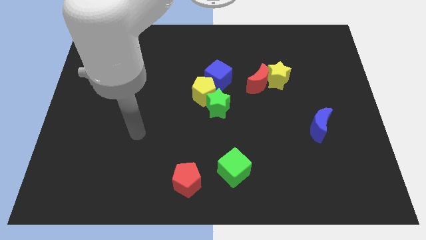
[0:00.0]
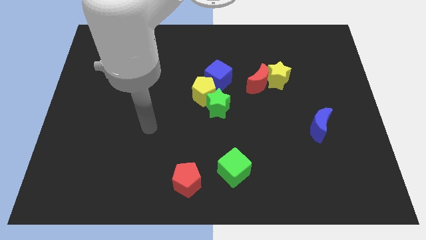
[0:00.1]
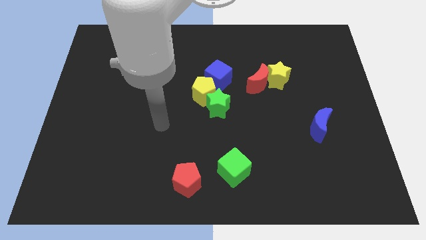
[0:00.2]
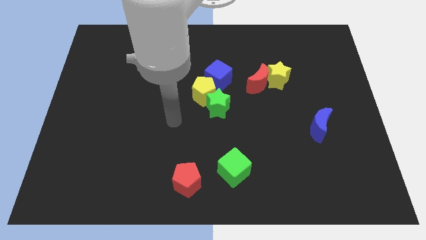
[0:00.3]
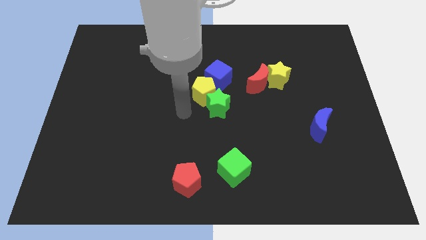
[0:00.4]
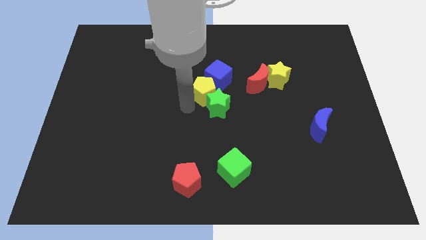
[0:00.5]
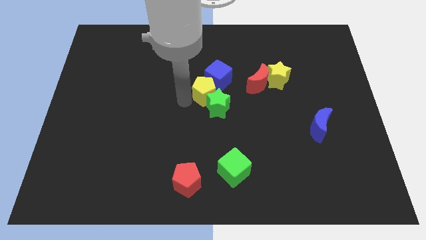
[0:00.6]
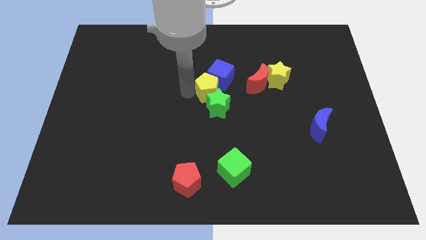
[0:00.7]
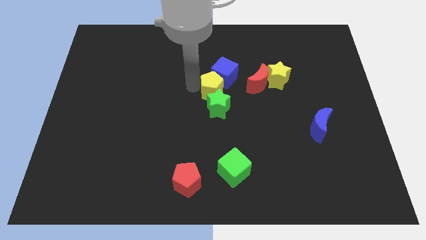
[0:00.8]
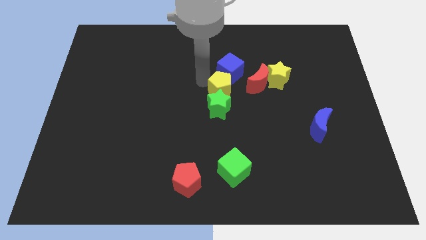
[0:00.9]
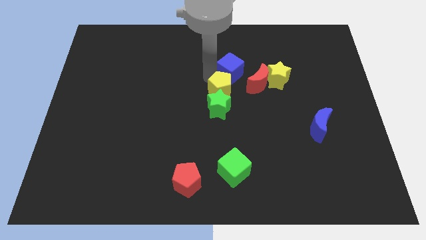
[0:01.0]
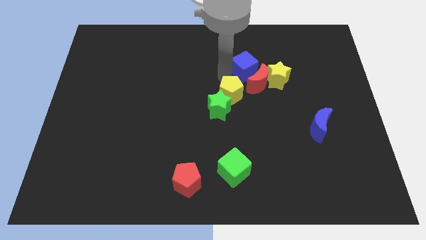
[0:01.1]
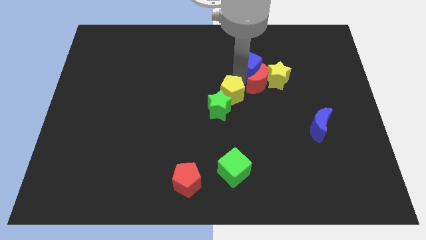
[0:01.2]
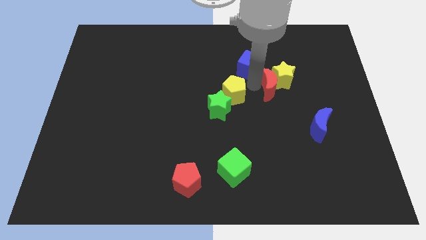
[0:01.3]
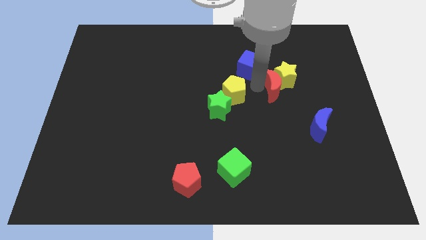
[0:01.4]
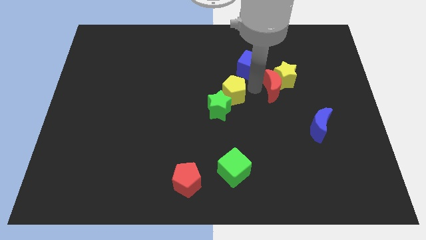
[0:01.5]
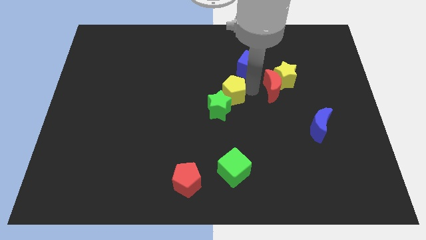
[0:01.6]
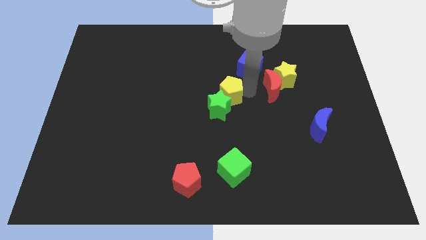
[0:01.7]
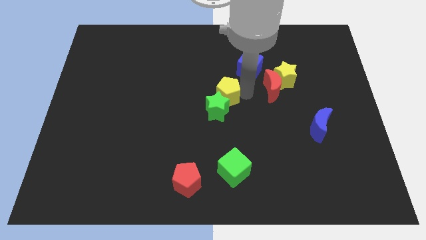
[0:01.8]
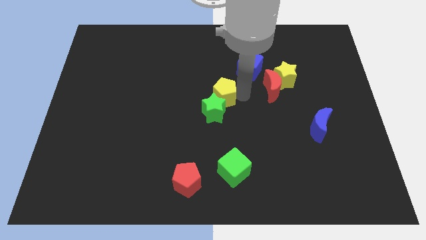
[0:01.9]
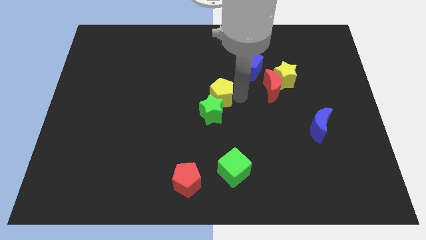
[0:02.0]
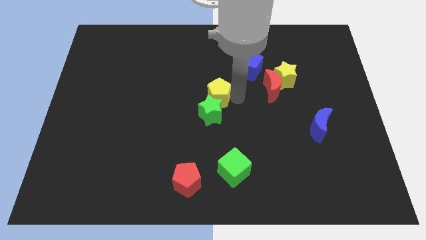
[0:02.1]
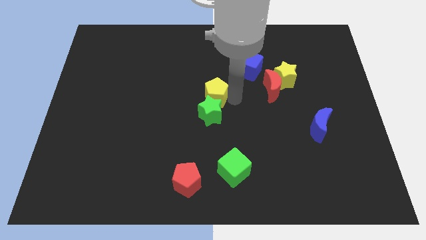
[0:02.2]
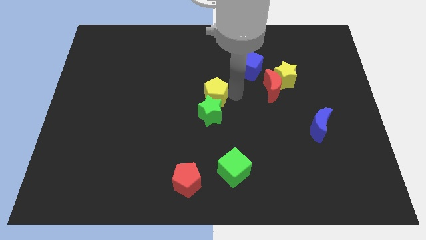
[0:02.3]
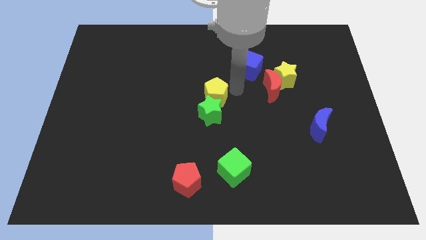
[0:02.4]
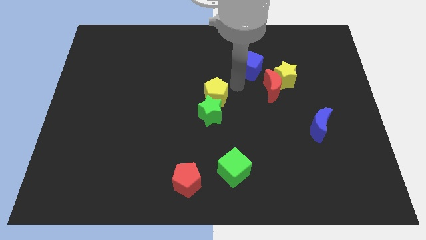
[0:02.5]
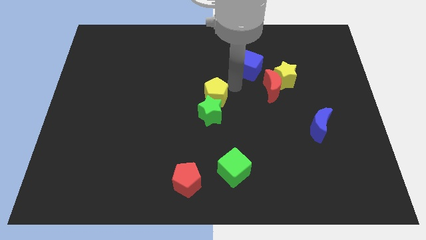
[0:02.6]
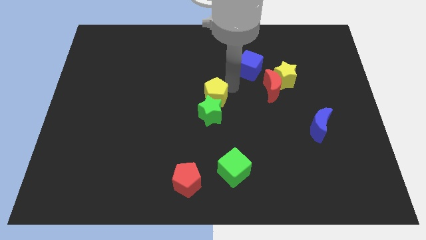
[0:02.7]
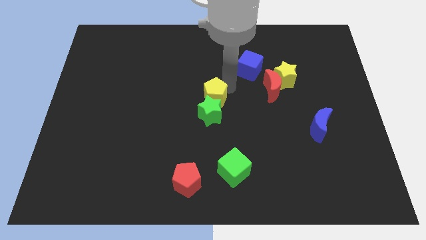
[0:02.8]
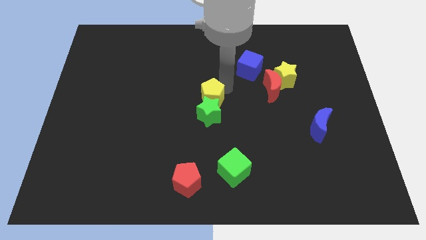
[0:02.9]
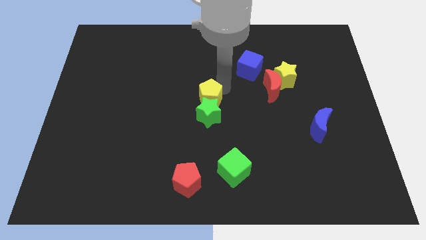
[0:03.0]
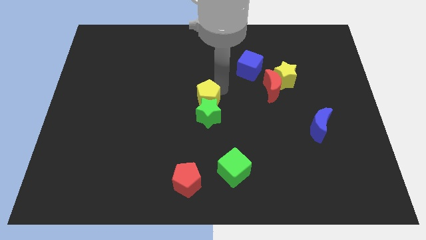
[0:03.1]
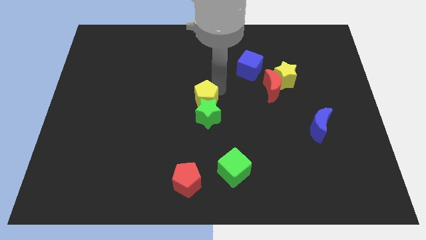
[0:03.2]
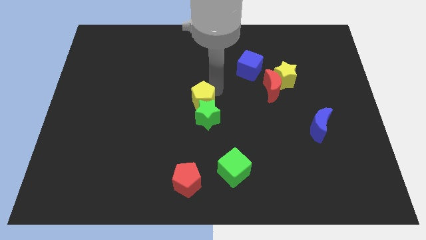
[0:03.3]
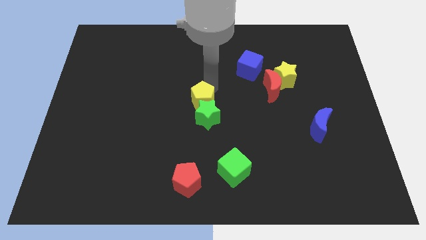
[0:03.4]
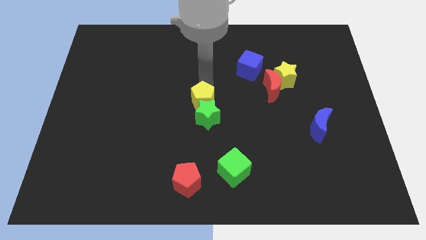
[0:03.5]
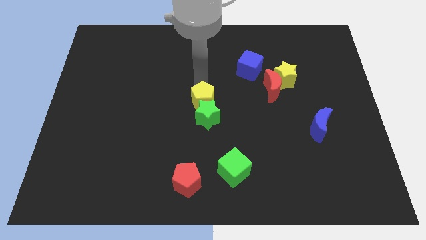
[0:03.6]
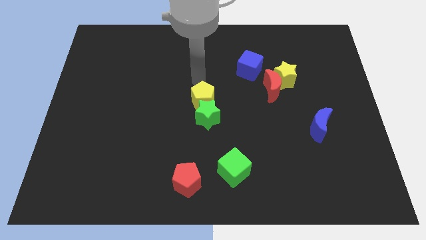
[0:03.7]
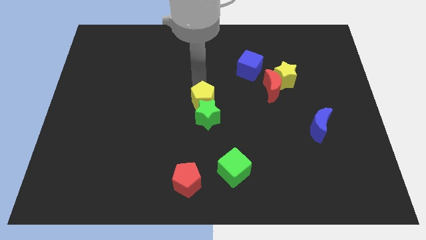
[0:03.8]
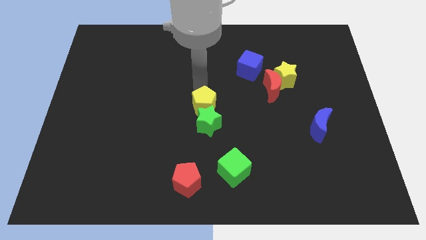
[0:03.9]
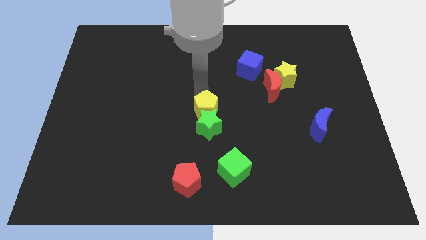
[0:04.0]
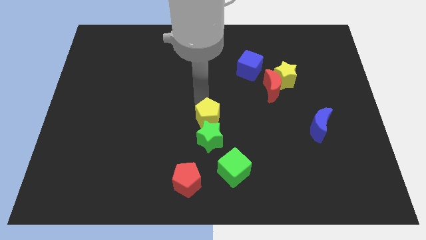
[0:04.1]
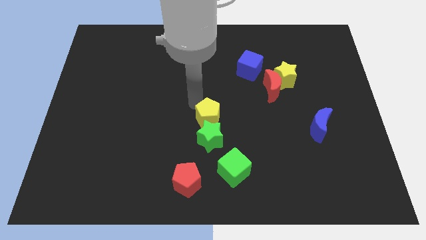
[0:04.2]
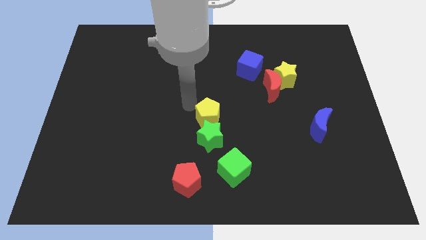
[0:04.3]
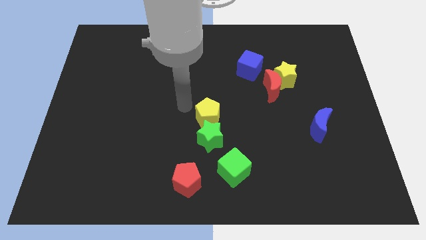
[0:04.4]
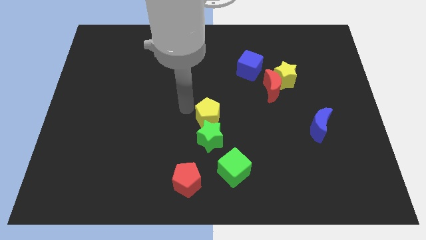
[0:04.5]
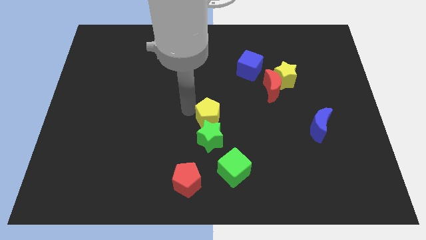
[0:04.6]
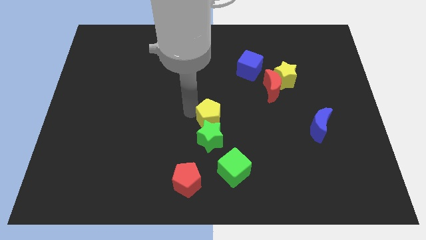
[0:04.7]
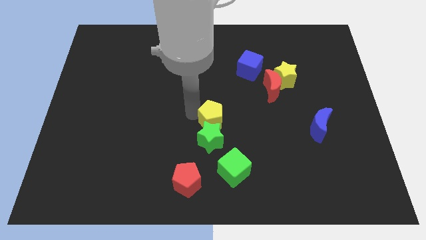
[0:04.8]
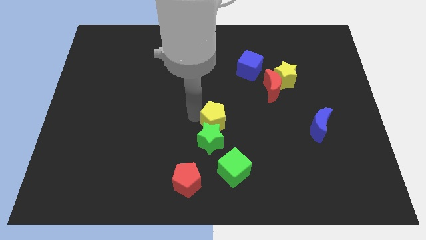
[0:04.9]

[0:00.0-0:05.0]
put the yellow pentagon above the green cube

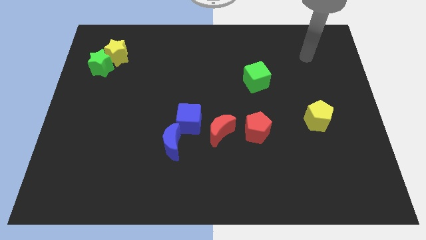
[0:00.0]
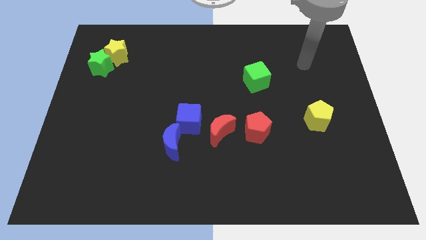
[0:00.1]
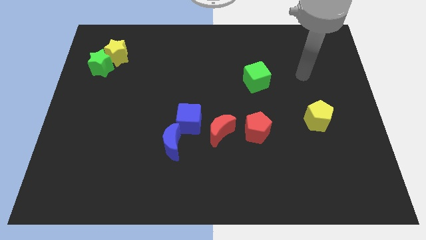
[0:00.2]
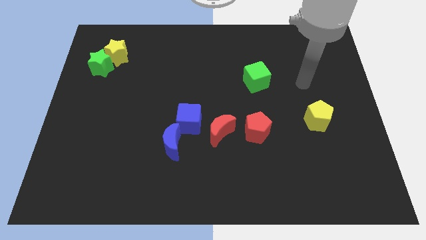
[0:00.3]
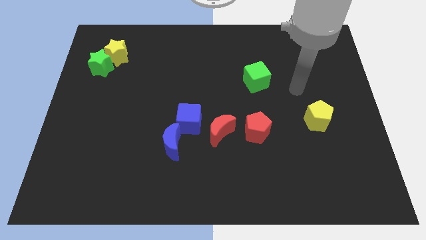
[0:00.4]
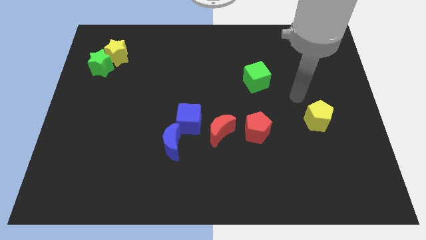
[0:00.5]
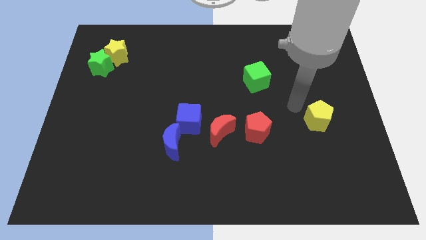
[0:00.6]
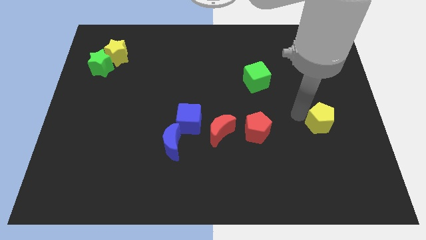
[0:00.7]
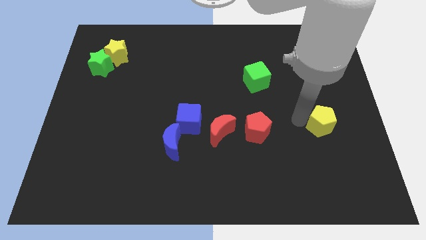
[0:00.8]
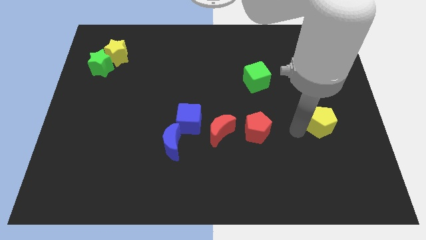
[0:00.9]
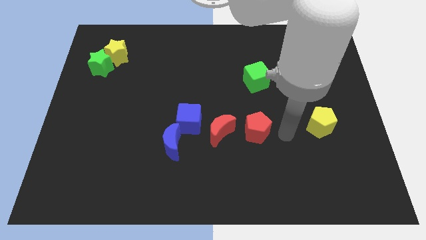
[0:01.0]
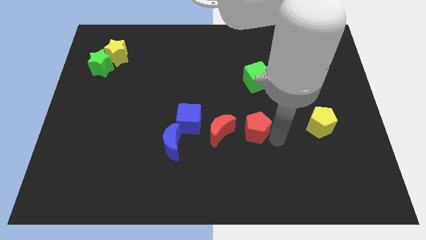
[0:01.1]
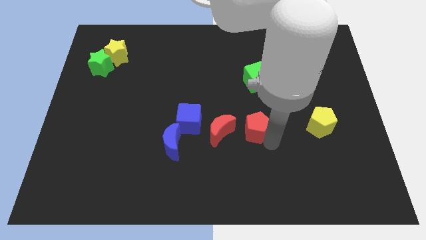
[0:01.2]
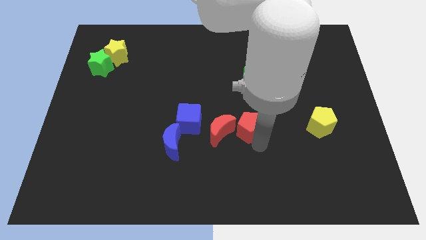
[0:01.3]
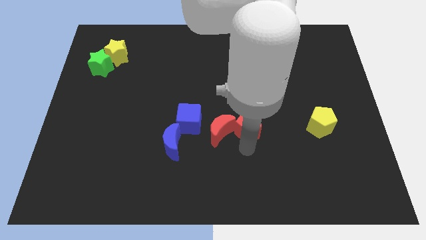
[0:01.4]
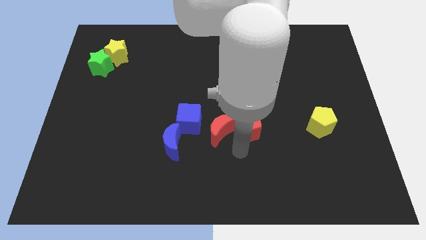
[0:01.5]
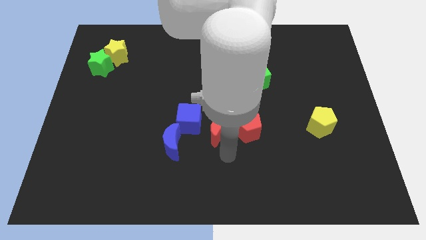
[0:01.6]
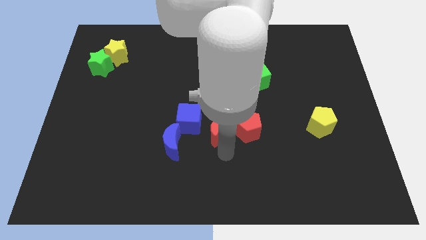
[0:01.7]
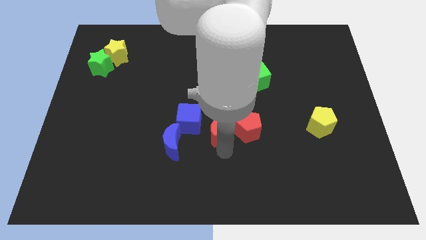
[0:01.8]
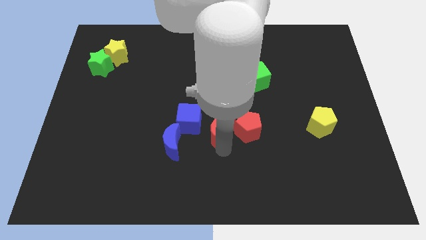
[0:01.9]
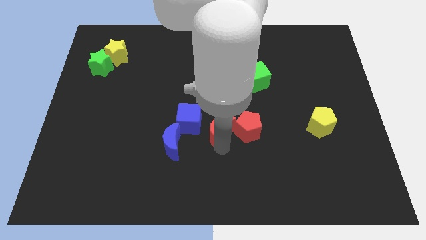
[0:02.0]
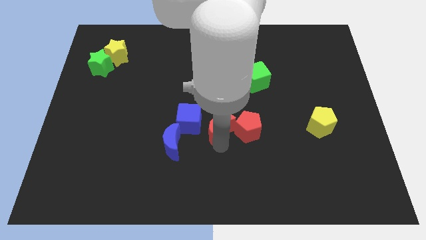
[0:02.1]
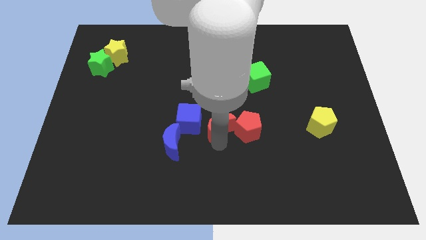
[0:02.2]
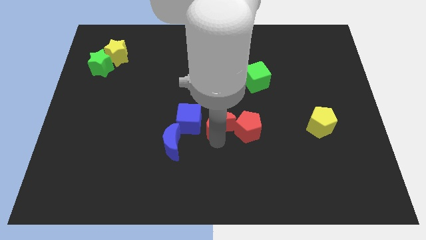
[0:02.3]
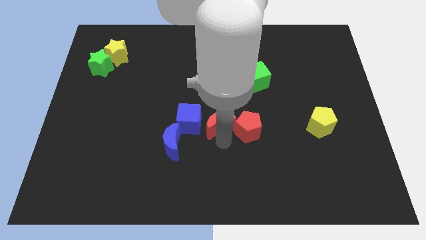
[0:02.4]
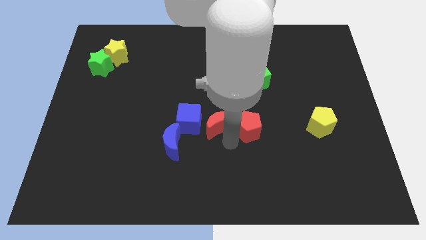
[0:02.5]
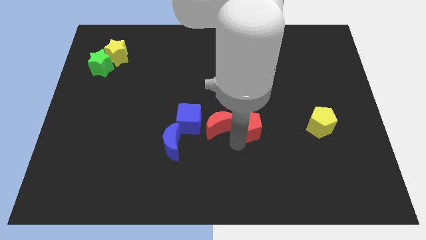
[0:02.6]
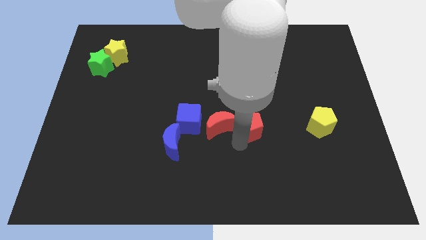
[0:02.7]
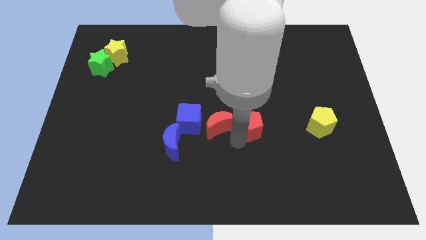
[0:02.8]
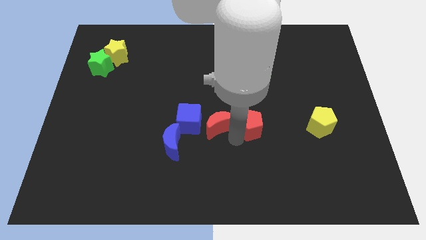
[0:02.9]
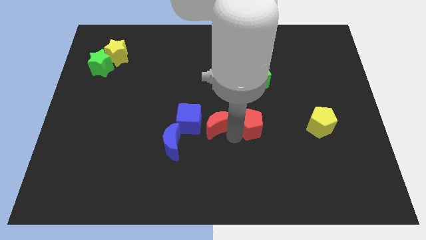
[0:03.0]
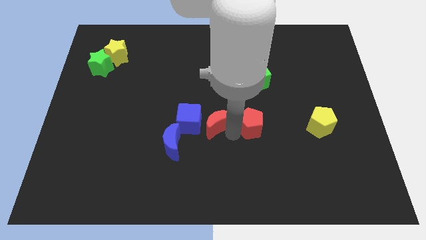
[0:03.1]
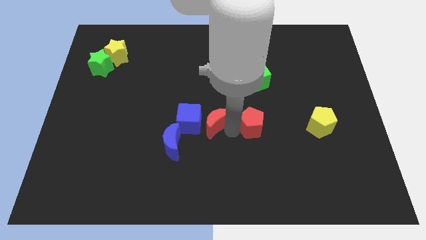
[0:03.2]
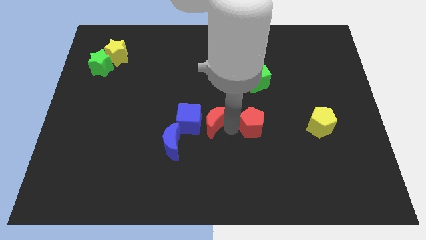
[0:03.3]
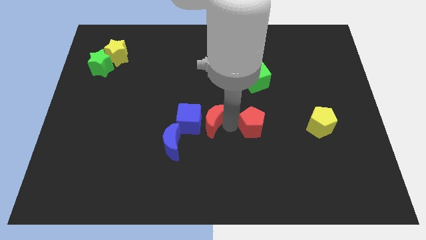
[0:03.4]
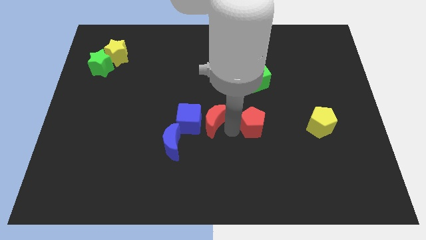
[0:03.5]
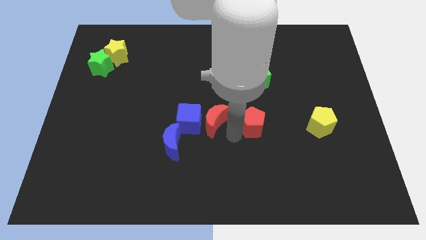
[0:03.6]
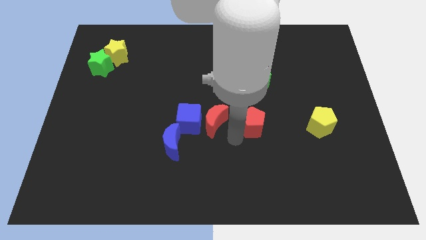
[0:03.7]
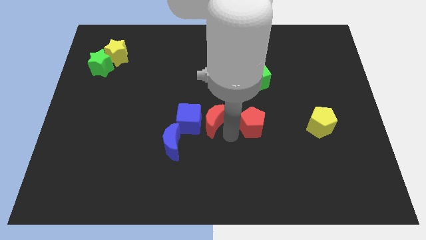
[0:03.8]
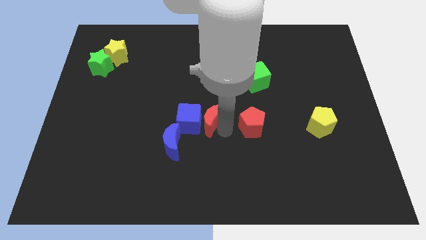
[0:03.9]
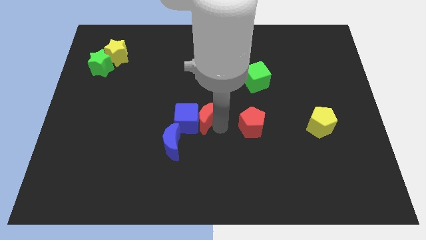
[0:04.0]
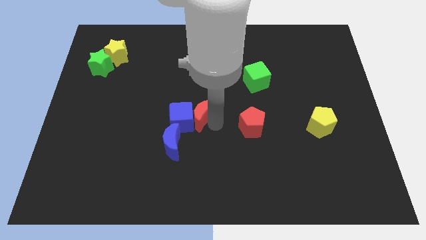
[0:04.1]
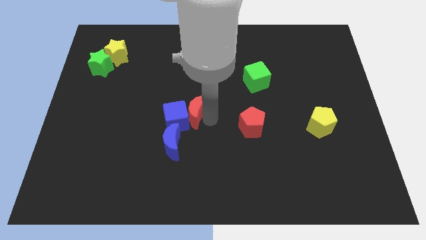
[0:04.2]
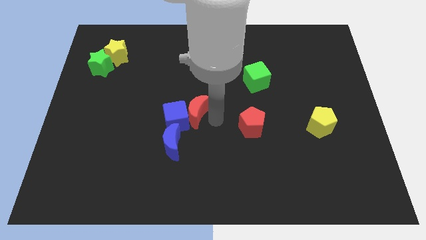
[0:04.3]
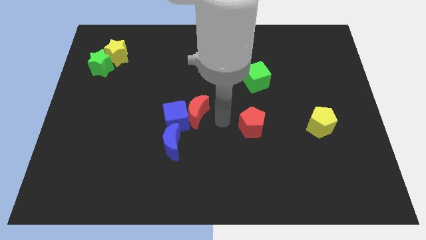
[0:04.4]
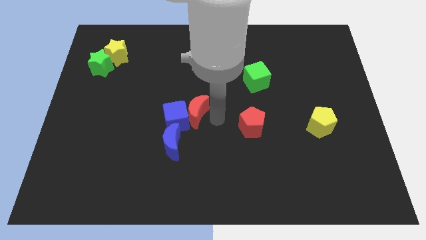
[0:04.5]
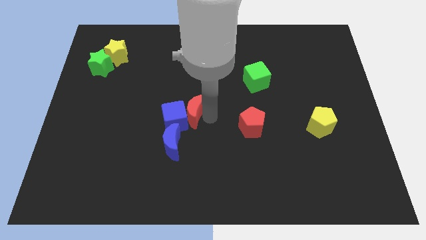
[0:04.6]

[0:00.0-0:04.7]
move the red moon to the top side of the blue moon
